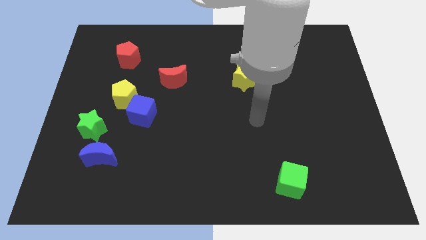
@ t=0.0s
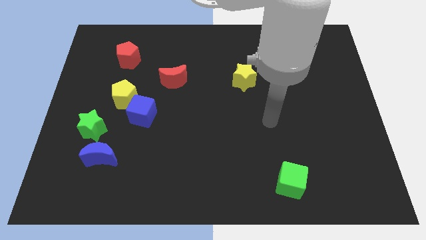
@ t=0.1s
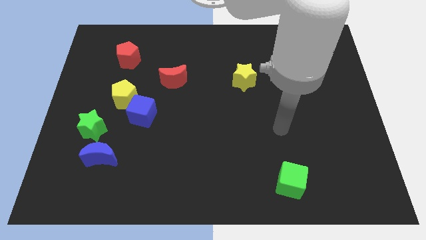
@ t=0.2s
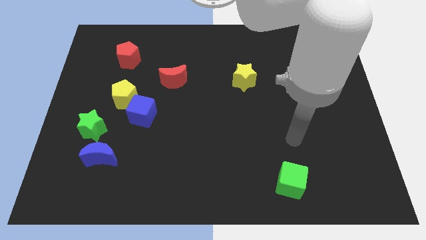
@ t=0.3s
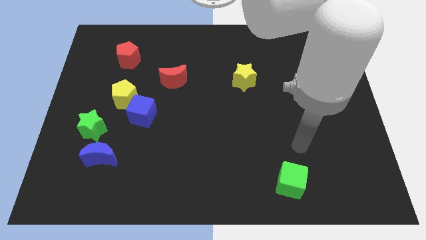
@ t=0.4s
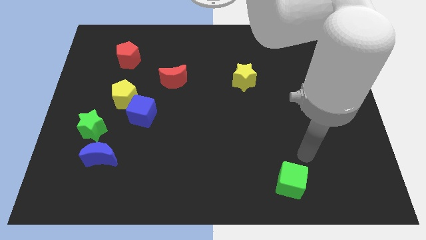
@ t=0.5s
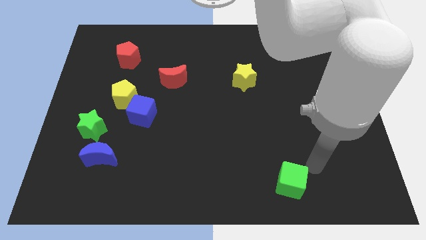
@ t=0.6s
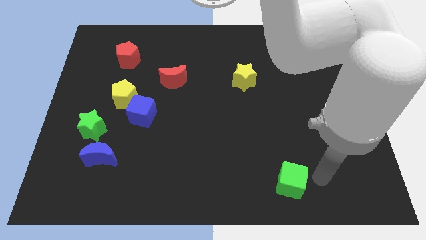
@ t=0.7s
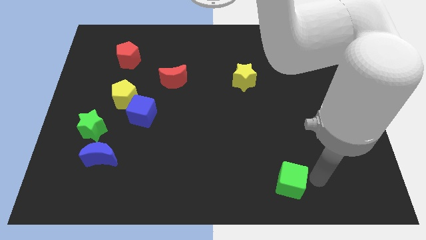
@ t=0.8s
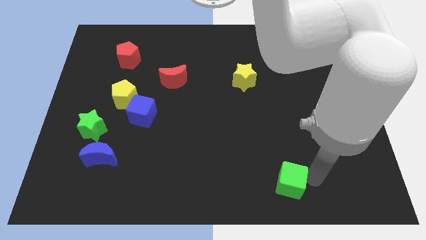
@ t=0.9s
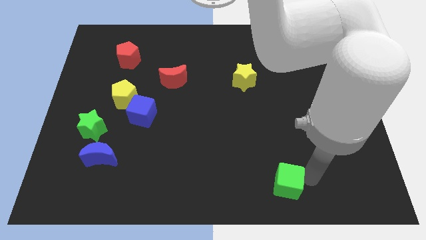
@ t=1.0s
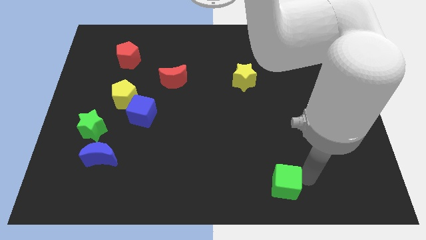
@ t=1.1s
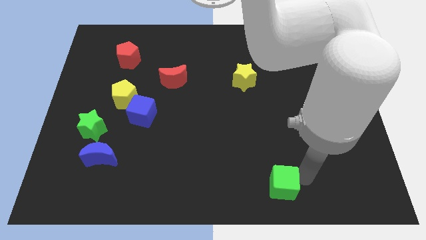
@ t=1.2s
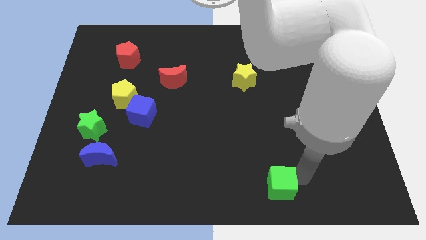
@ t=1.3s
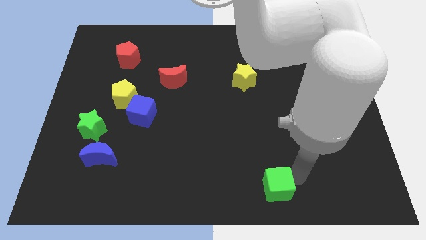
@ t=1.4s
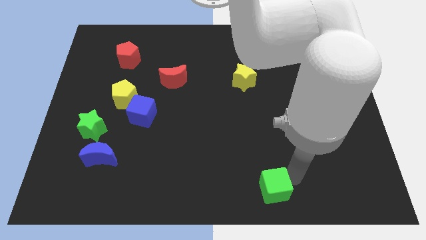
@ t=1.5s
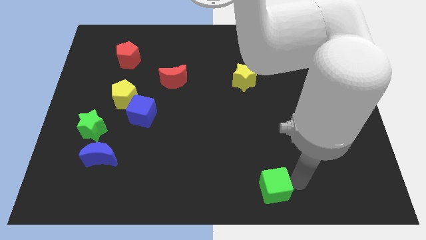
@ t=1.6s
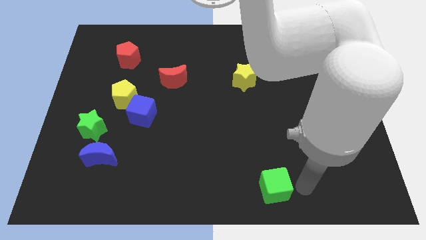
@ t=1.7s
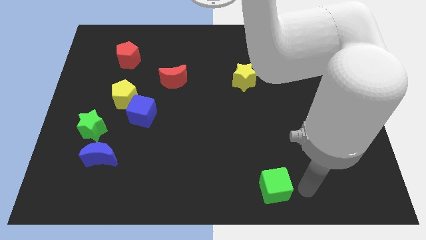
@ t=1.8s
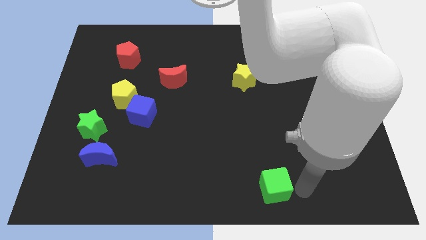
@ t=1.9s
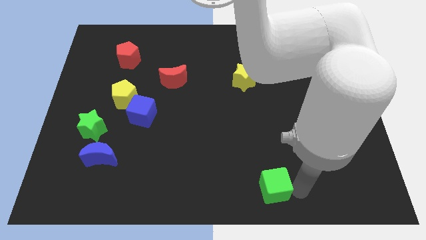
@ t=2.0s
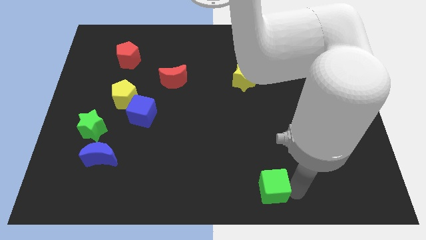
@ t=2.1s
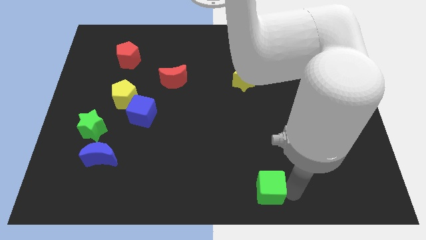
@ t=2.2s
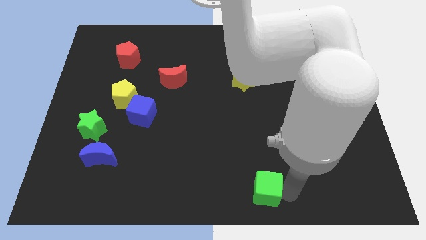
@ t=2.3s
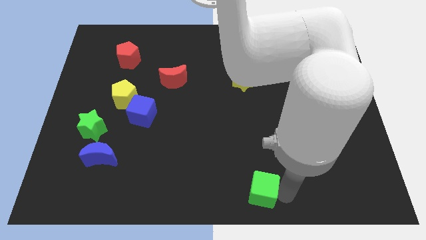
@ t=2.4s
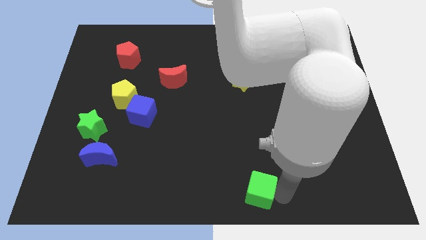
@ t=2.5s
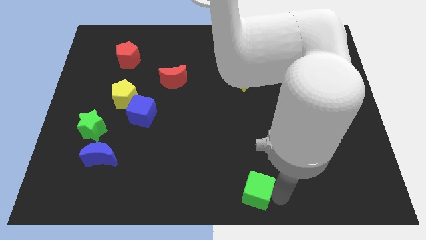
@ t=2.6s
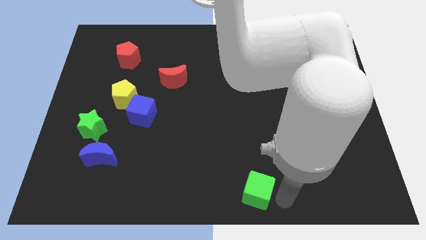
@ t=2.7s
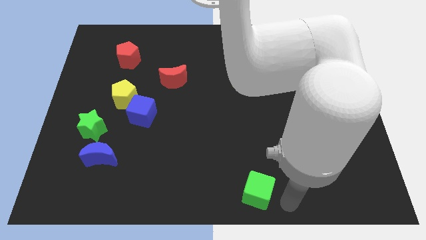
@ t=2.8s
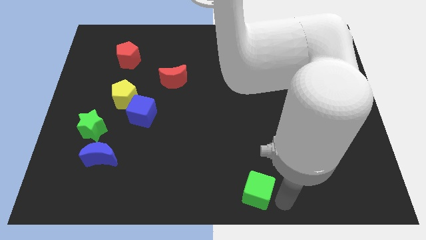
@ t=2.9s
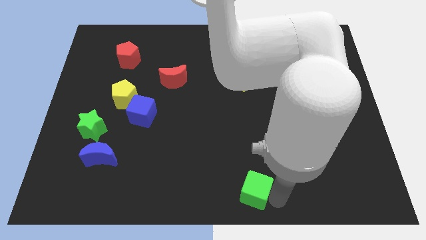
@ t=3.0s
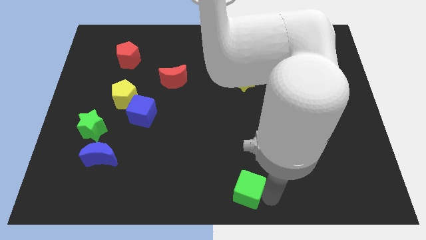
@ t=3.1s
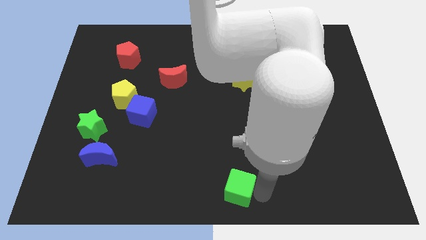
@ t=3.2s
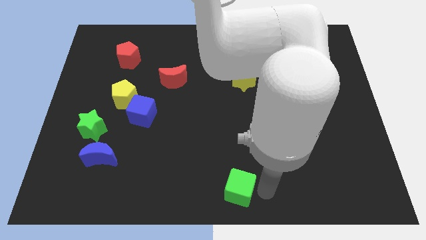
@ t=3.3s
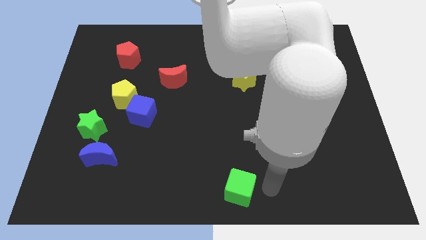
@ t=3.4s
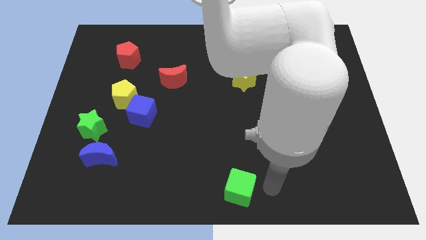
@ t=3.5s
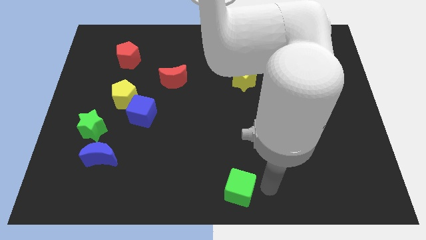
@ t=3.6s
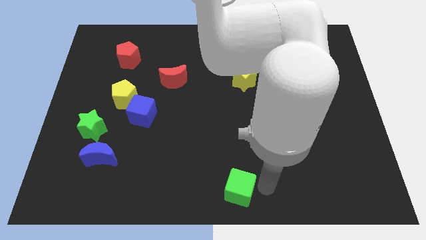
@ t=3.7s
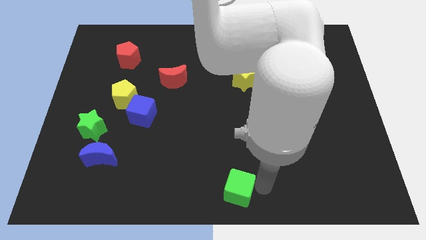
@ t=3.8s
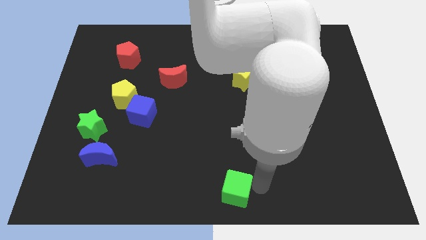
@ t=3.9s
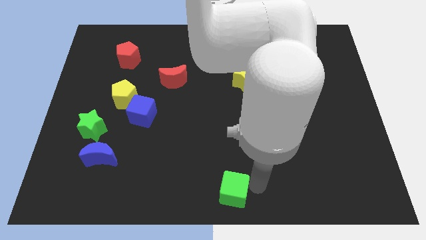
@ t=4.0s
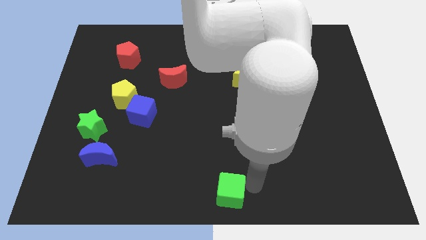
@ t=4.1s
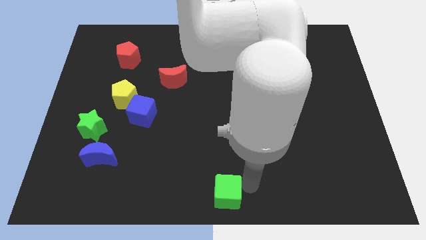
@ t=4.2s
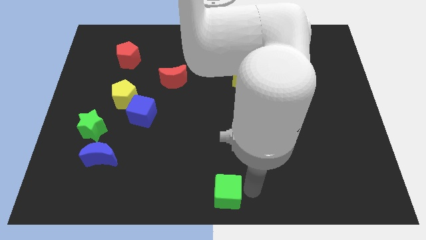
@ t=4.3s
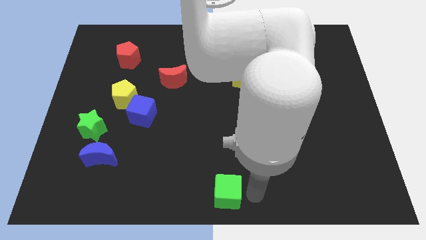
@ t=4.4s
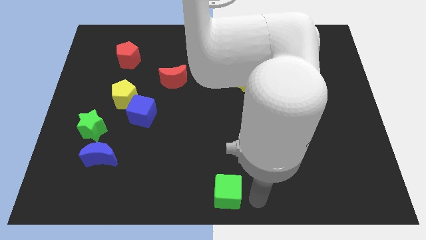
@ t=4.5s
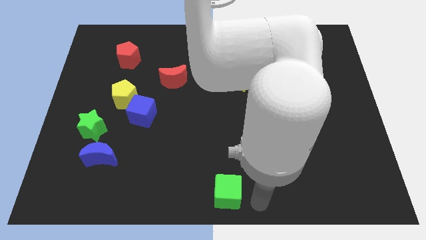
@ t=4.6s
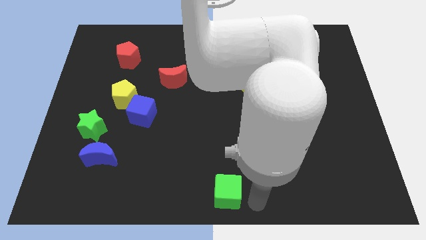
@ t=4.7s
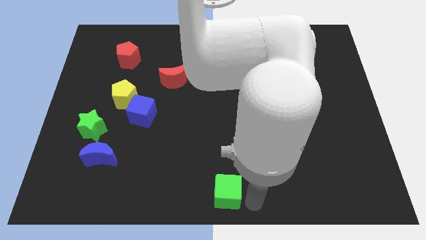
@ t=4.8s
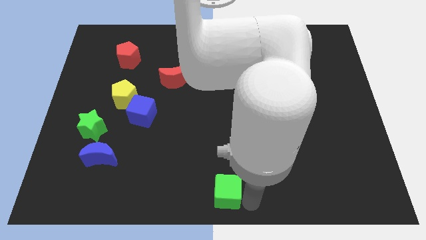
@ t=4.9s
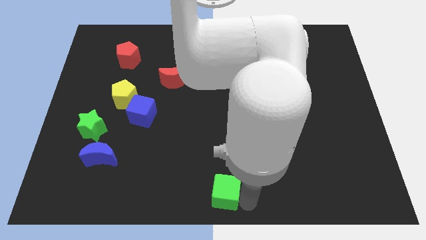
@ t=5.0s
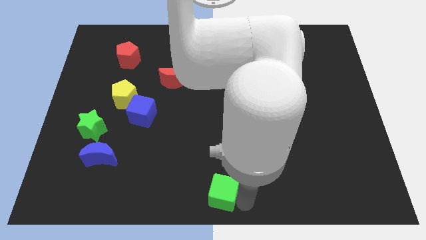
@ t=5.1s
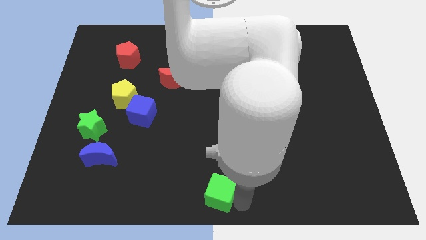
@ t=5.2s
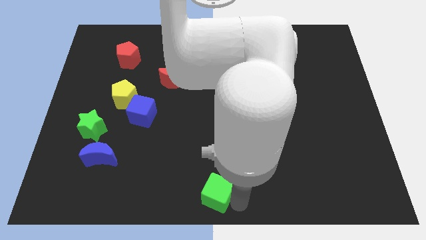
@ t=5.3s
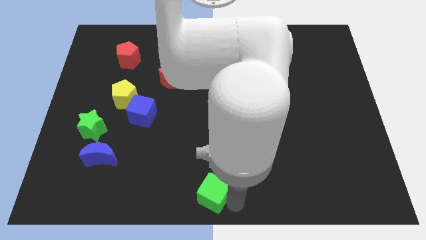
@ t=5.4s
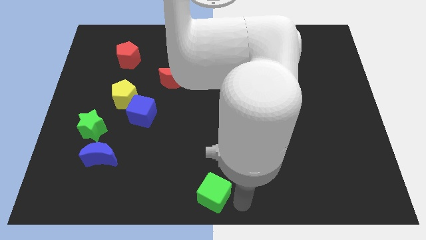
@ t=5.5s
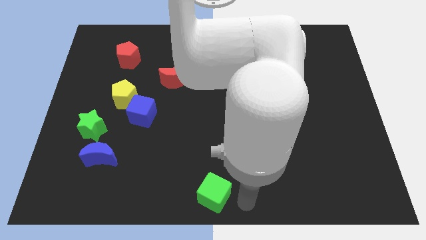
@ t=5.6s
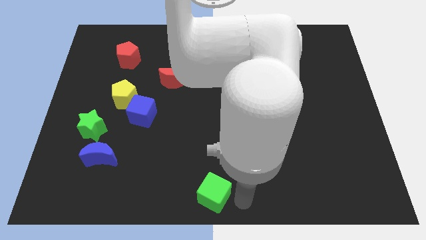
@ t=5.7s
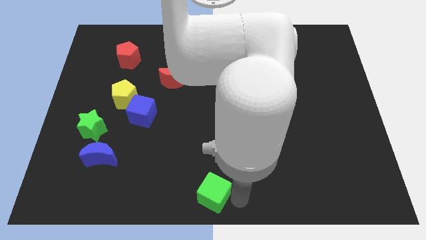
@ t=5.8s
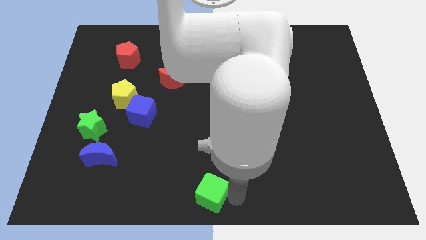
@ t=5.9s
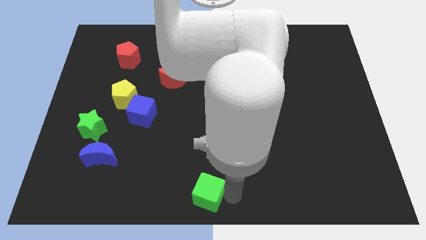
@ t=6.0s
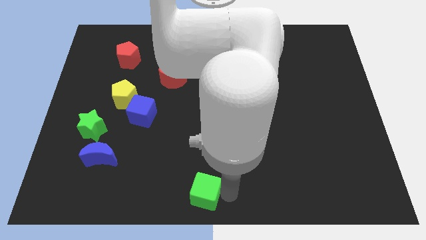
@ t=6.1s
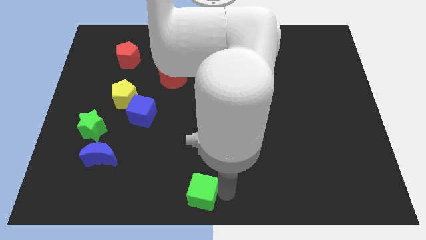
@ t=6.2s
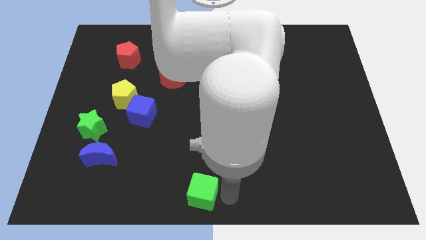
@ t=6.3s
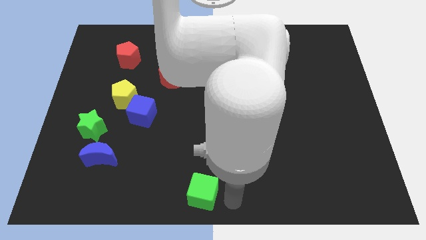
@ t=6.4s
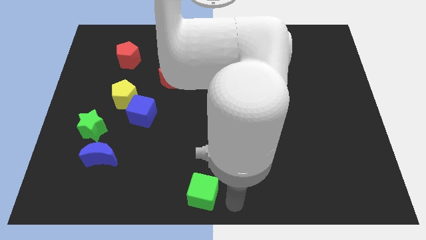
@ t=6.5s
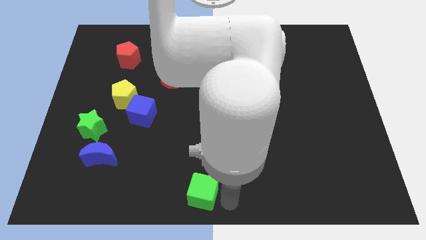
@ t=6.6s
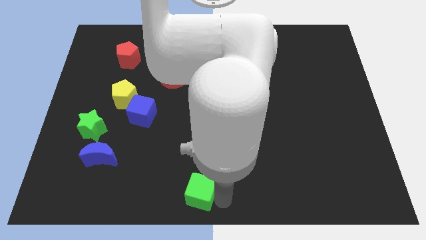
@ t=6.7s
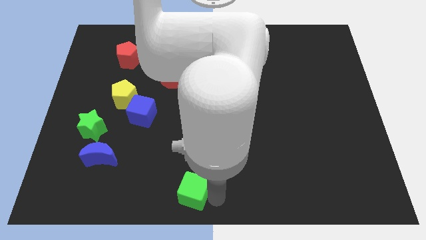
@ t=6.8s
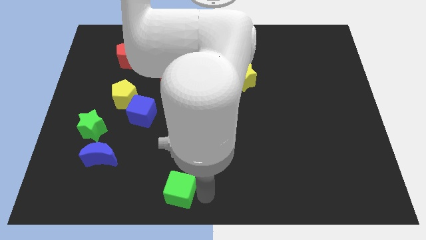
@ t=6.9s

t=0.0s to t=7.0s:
move the green cube to the left

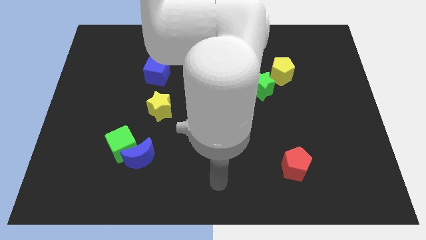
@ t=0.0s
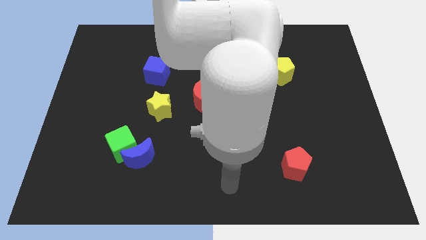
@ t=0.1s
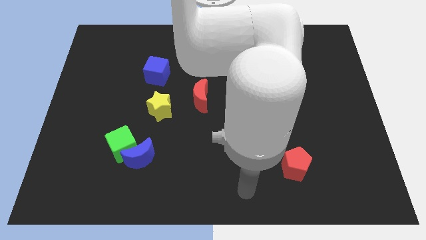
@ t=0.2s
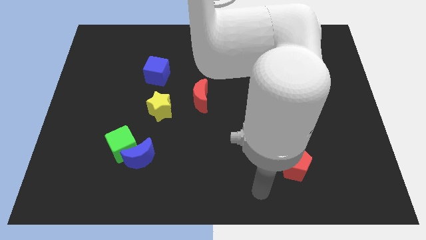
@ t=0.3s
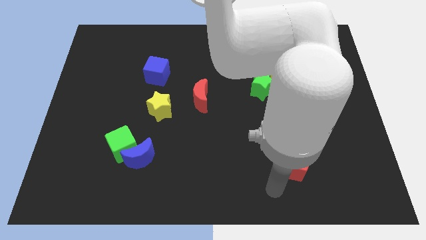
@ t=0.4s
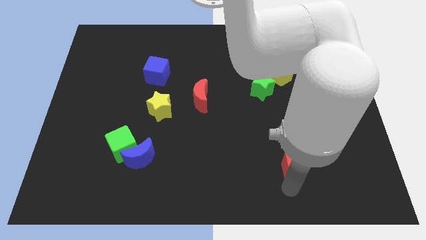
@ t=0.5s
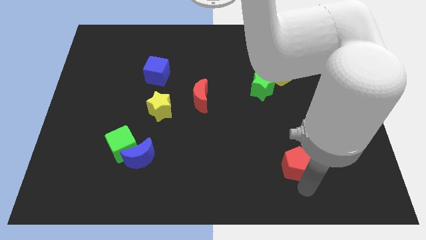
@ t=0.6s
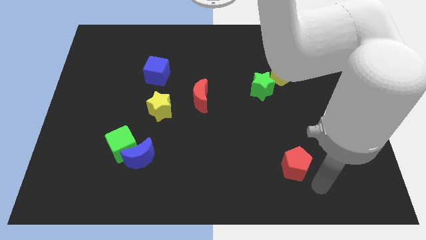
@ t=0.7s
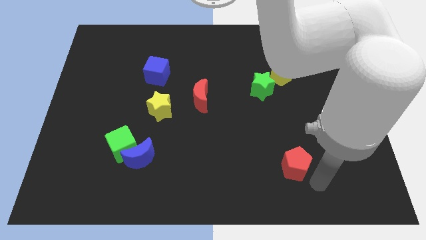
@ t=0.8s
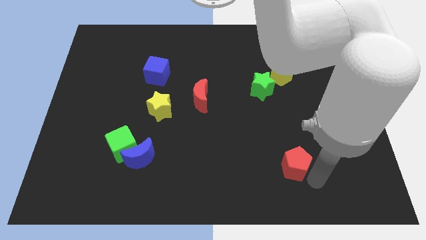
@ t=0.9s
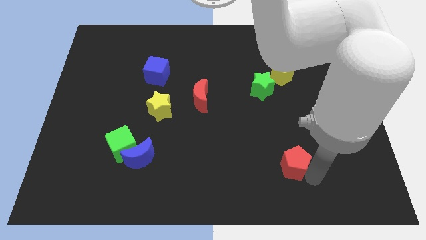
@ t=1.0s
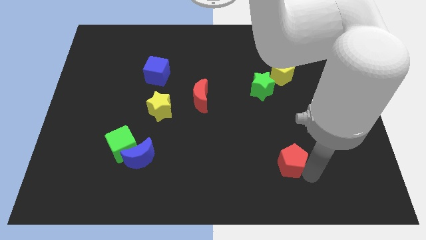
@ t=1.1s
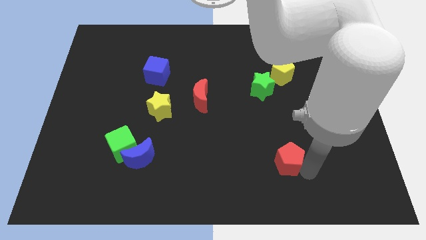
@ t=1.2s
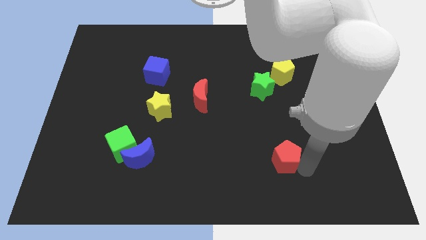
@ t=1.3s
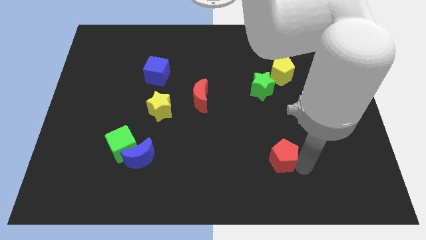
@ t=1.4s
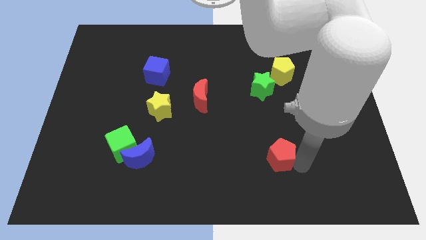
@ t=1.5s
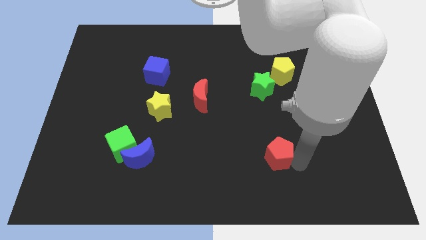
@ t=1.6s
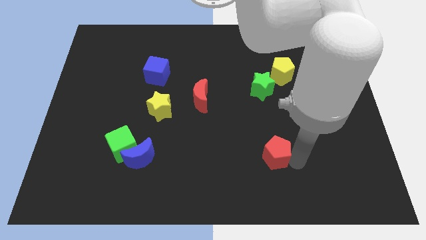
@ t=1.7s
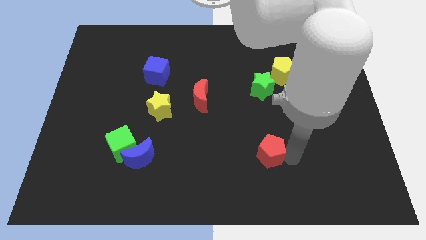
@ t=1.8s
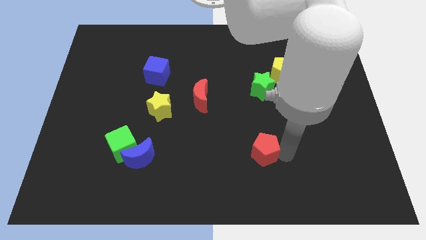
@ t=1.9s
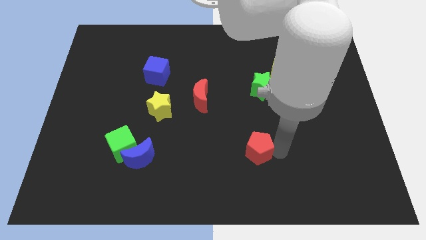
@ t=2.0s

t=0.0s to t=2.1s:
move the red pentagon up and then left a little bit
